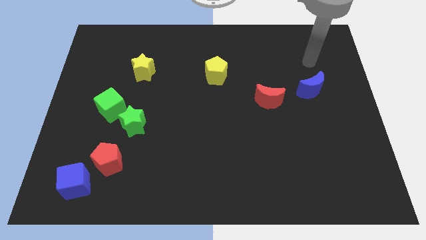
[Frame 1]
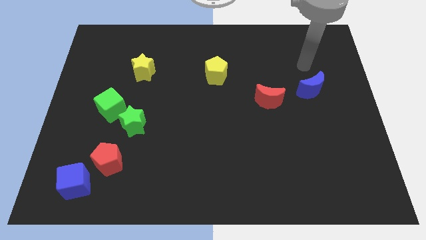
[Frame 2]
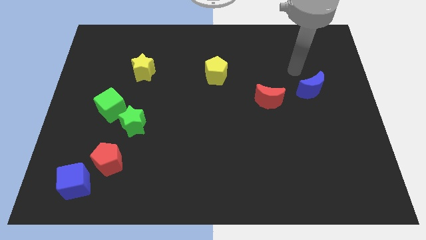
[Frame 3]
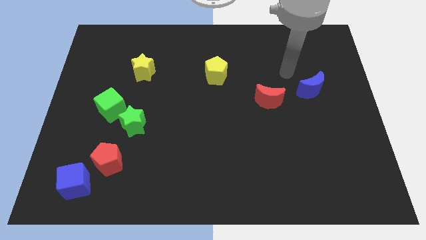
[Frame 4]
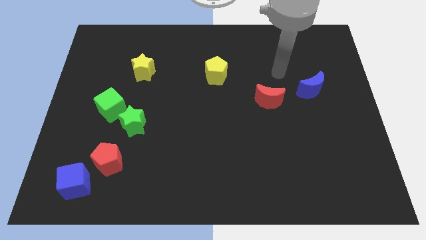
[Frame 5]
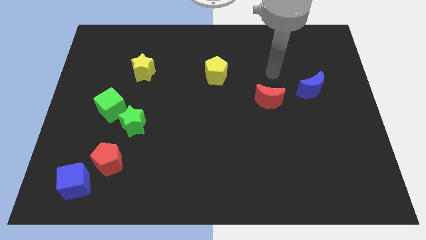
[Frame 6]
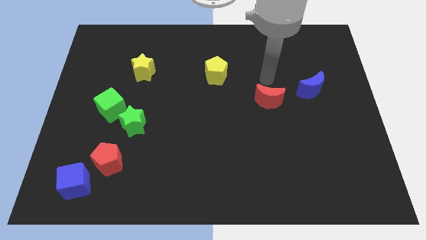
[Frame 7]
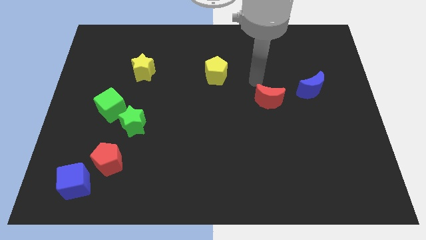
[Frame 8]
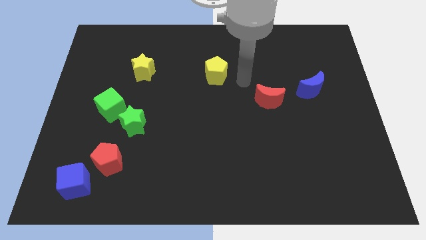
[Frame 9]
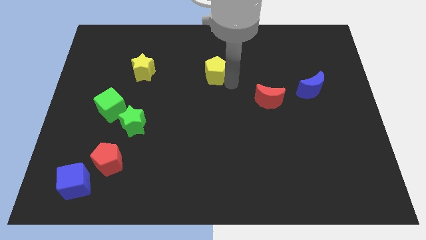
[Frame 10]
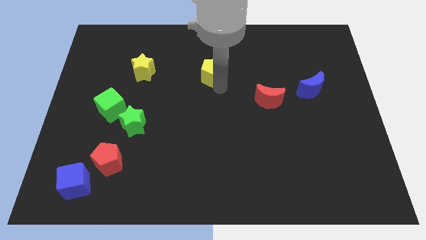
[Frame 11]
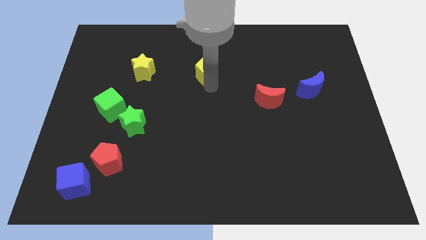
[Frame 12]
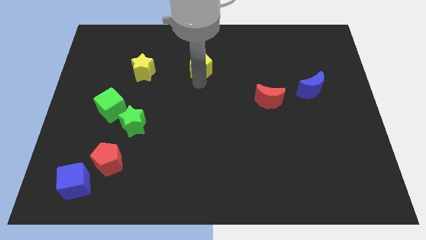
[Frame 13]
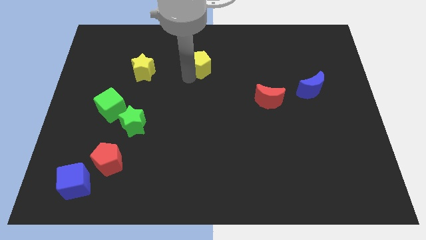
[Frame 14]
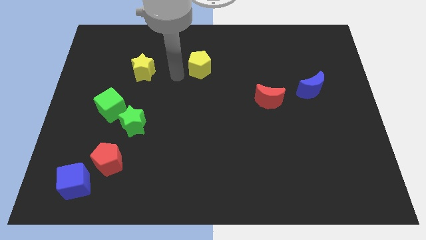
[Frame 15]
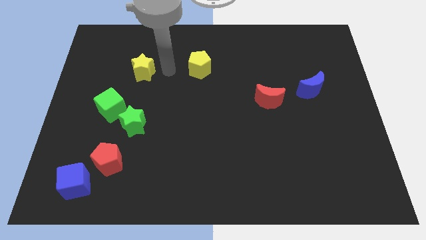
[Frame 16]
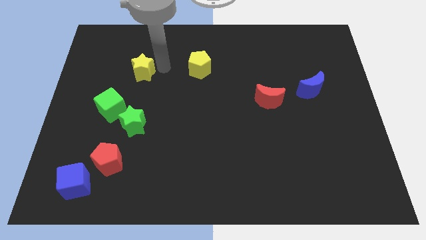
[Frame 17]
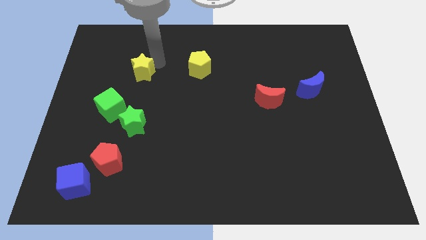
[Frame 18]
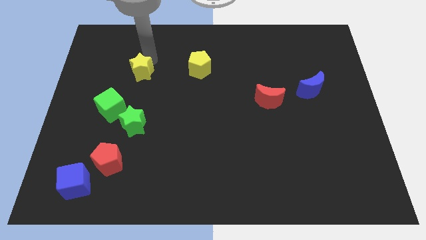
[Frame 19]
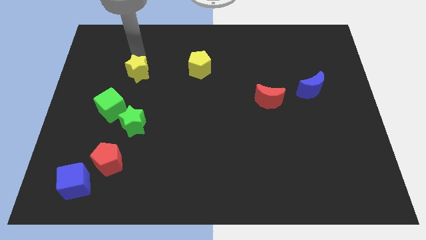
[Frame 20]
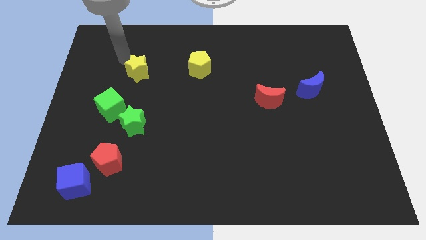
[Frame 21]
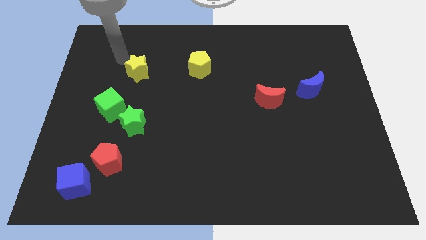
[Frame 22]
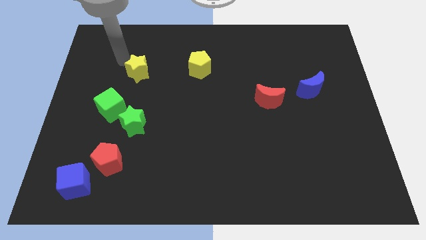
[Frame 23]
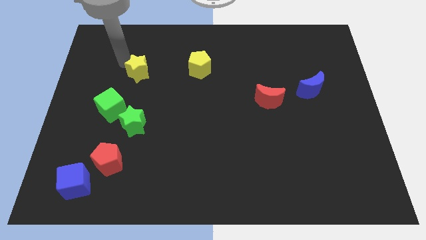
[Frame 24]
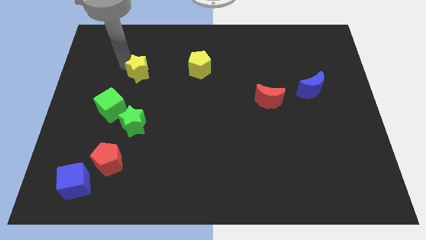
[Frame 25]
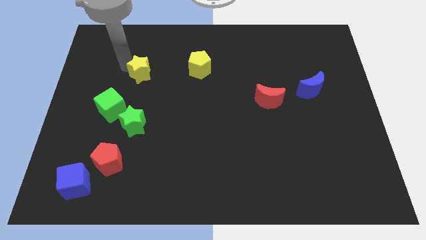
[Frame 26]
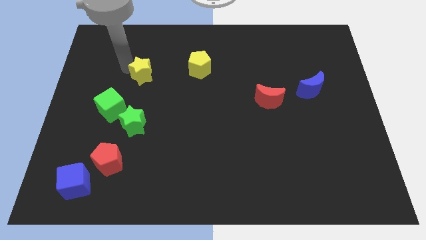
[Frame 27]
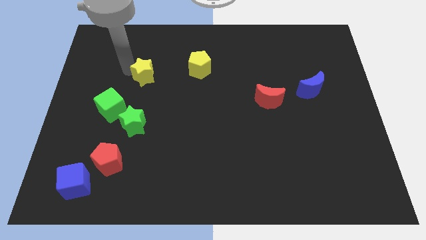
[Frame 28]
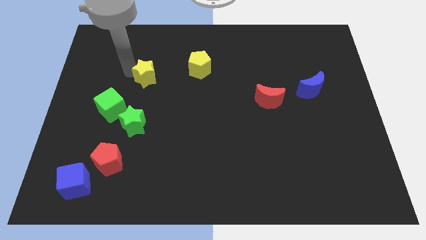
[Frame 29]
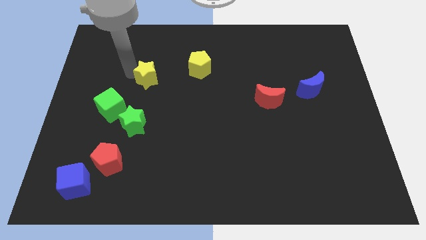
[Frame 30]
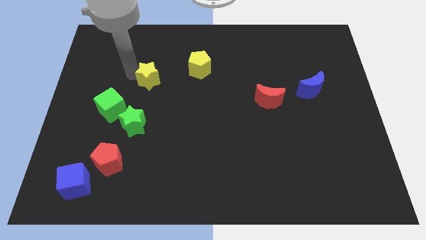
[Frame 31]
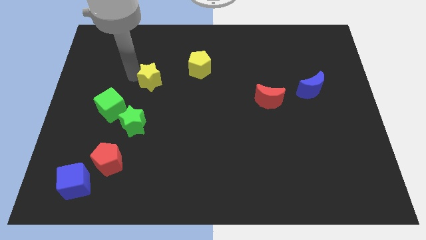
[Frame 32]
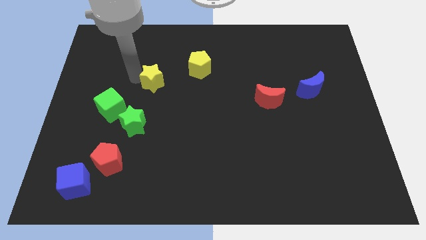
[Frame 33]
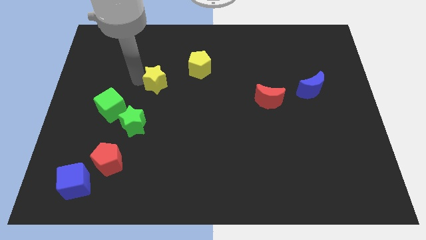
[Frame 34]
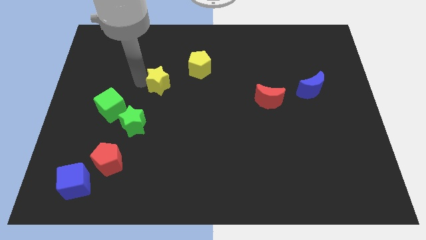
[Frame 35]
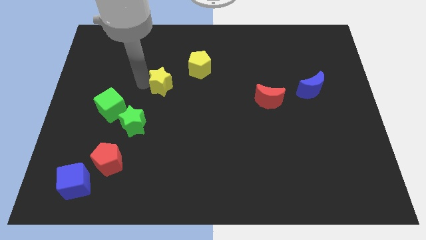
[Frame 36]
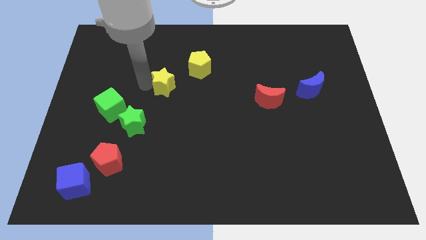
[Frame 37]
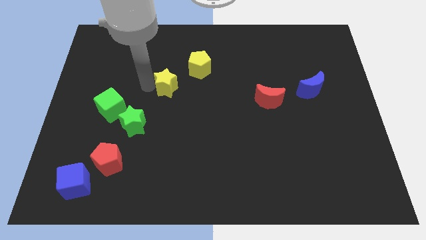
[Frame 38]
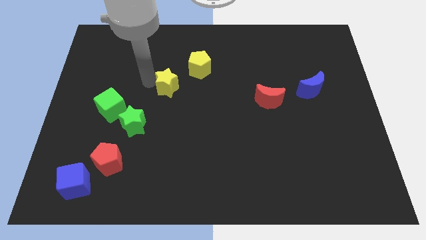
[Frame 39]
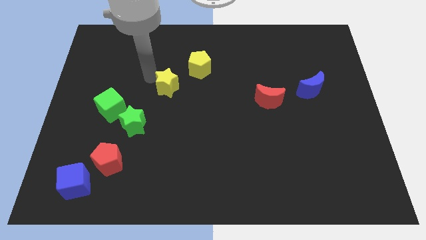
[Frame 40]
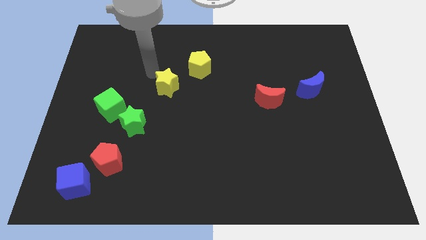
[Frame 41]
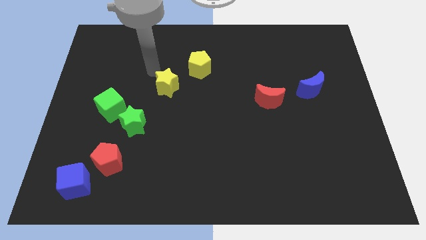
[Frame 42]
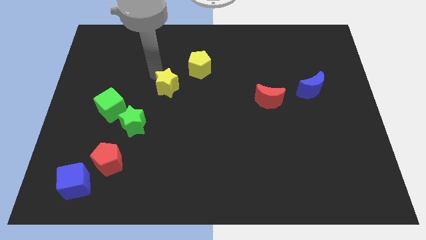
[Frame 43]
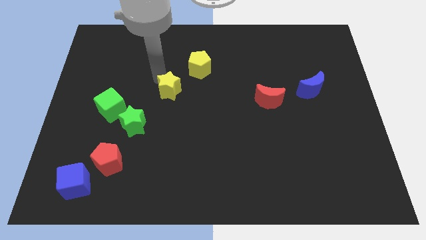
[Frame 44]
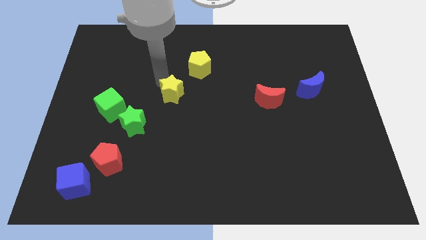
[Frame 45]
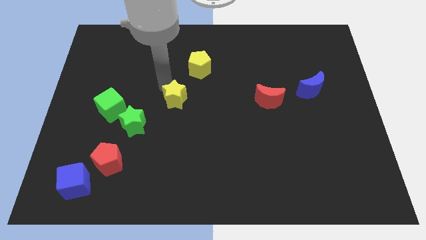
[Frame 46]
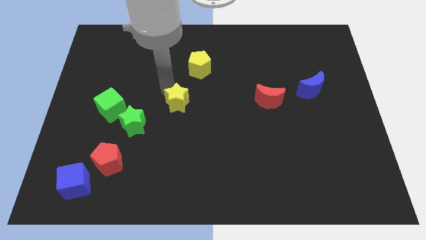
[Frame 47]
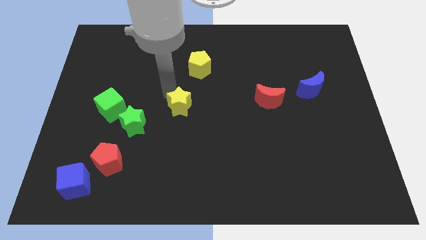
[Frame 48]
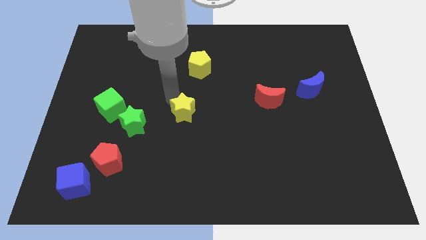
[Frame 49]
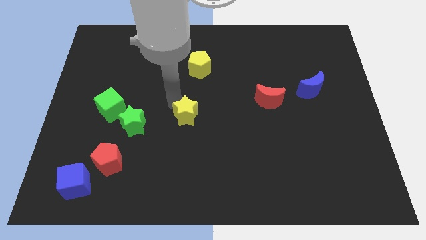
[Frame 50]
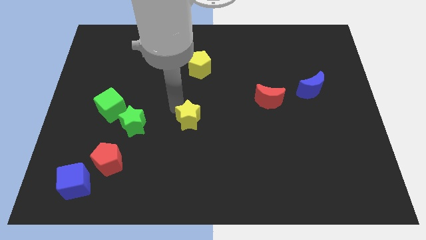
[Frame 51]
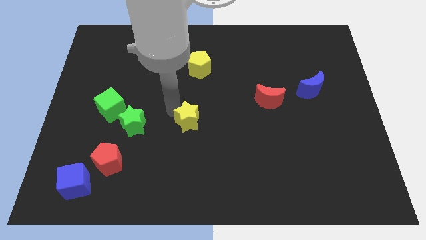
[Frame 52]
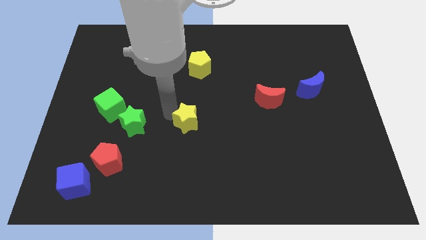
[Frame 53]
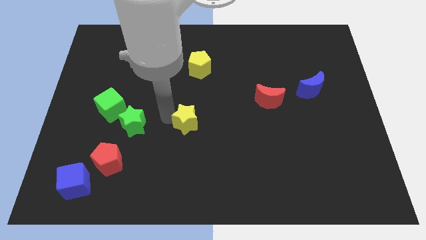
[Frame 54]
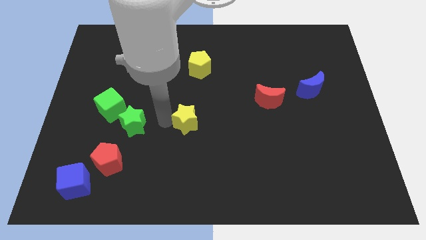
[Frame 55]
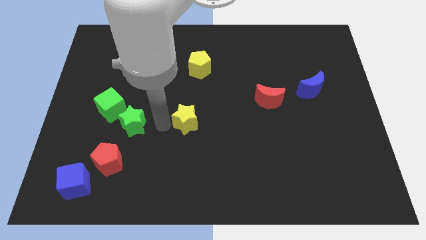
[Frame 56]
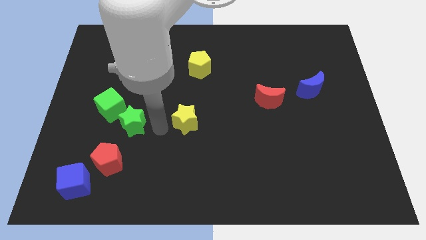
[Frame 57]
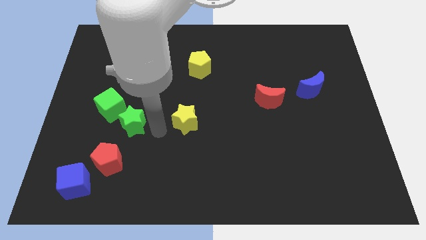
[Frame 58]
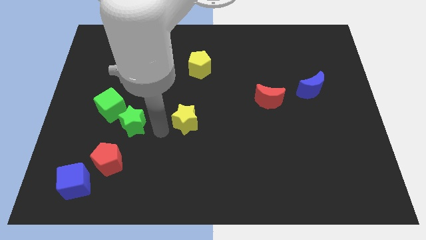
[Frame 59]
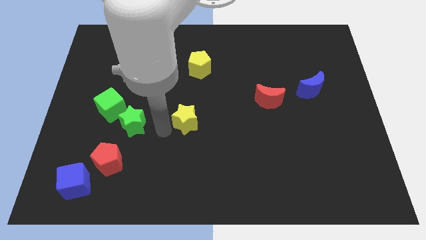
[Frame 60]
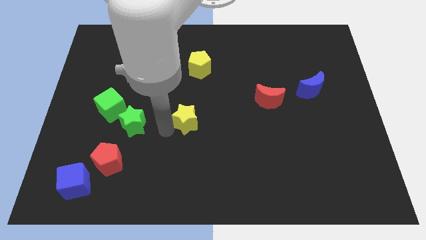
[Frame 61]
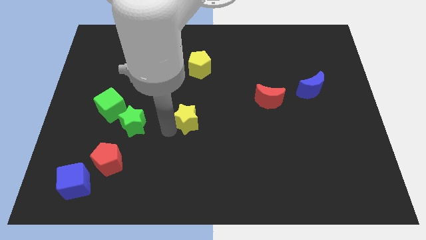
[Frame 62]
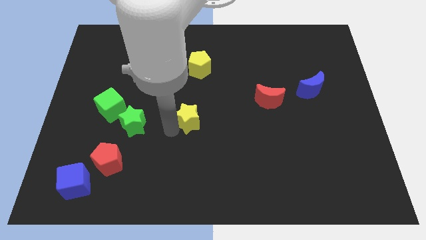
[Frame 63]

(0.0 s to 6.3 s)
push the yellow star downwards and to the right

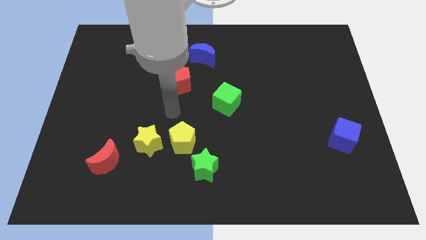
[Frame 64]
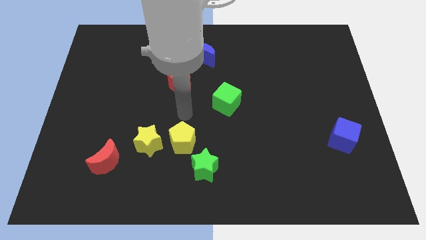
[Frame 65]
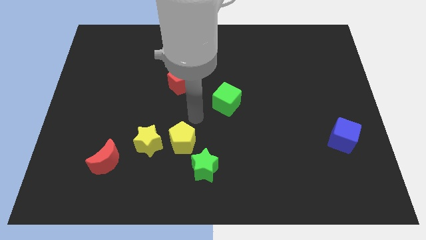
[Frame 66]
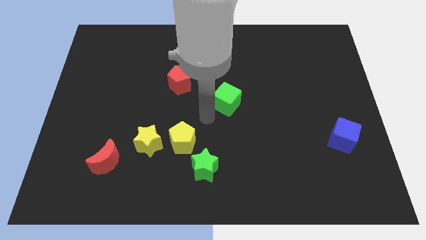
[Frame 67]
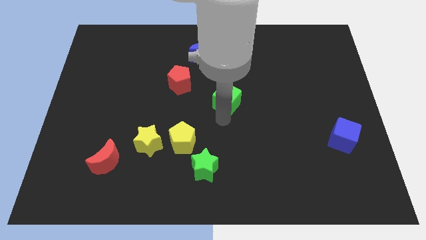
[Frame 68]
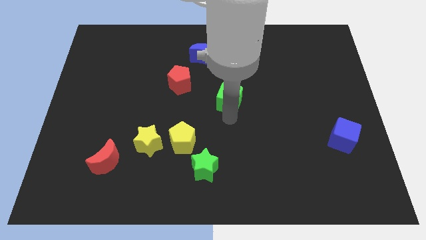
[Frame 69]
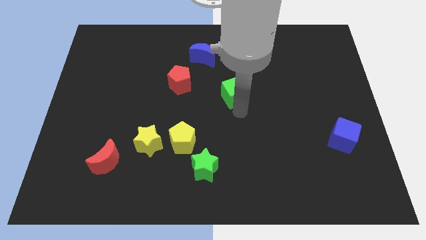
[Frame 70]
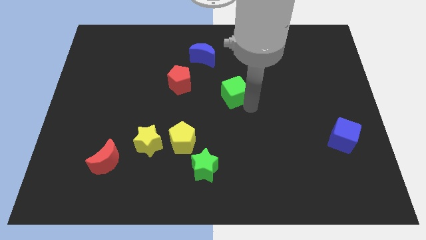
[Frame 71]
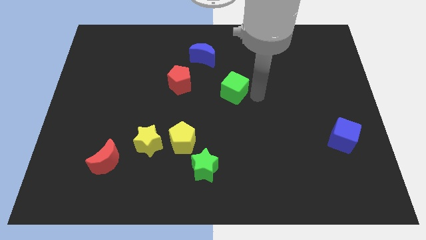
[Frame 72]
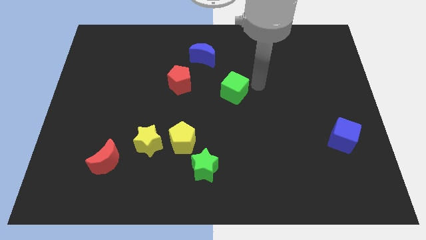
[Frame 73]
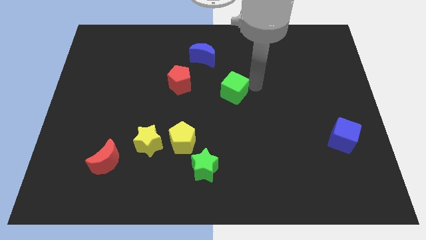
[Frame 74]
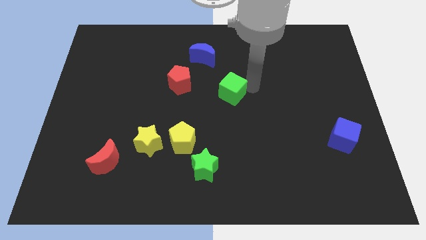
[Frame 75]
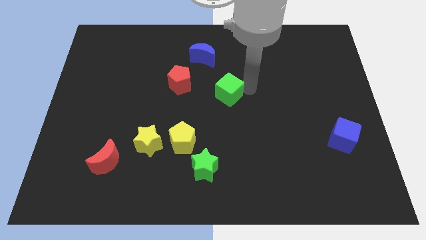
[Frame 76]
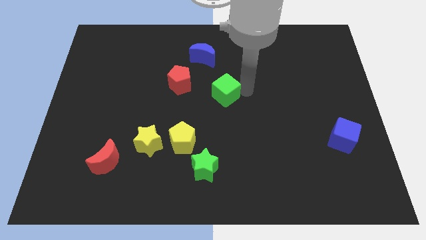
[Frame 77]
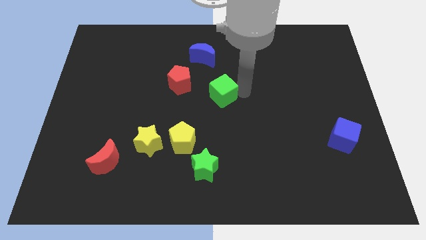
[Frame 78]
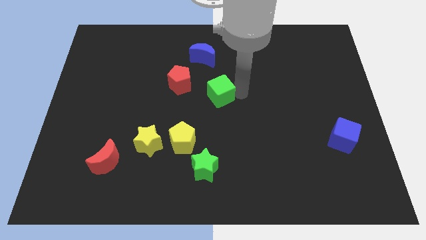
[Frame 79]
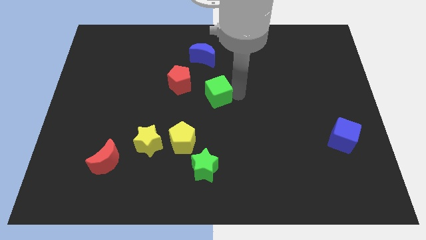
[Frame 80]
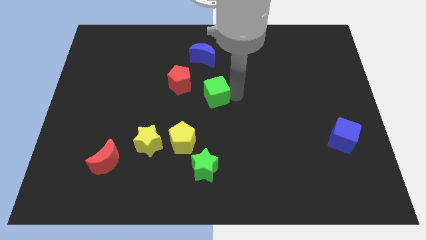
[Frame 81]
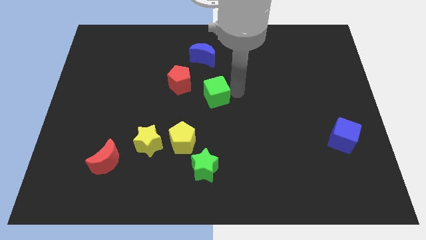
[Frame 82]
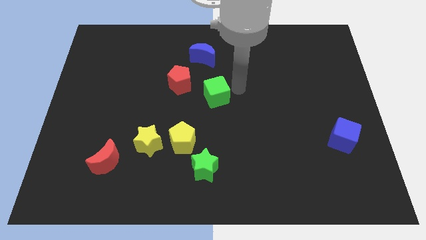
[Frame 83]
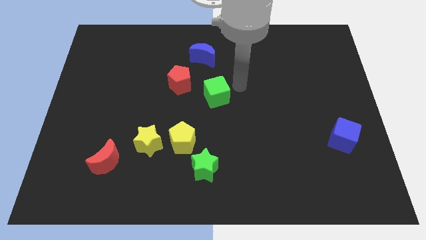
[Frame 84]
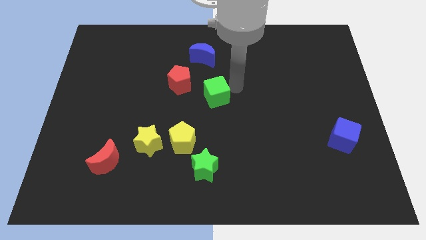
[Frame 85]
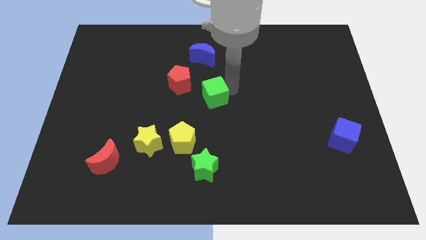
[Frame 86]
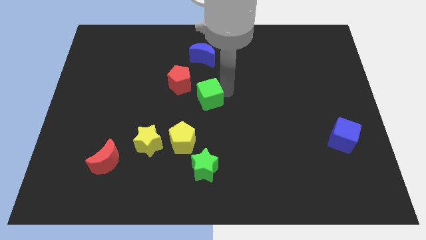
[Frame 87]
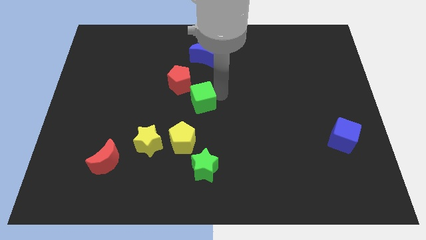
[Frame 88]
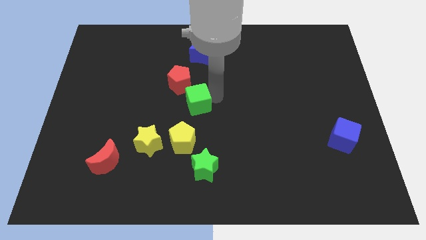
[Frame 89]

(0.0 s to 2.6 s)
push the green cube to the left a little bit
